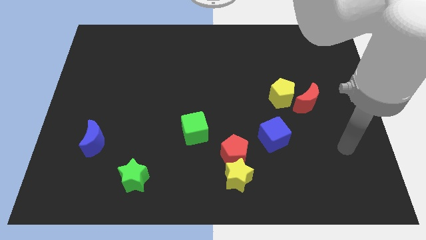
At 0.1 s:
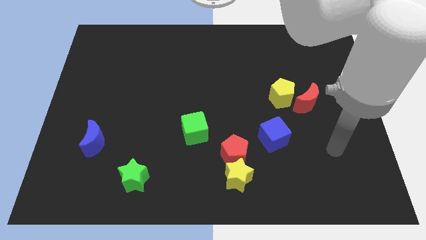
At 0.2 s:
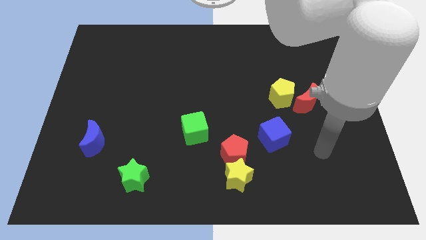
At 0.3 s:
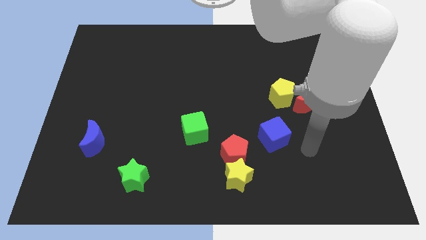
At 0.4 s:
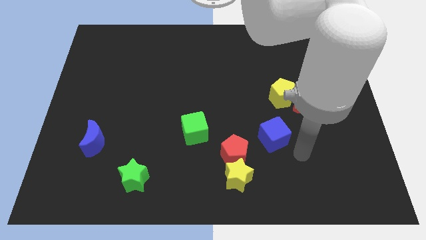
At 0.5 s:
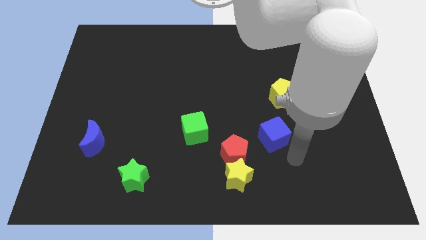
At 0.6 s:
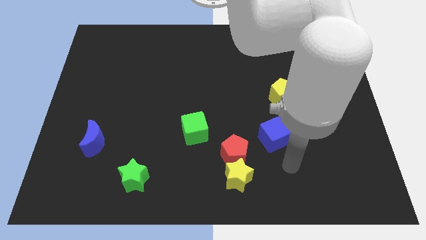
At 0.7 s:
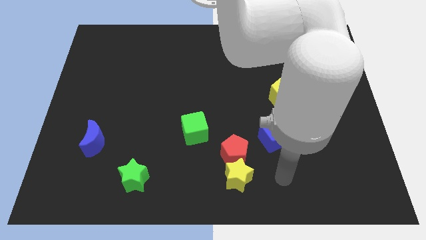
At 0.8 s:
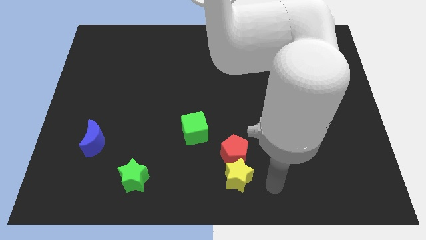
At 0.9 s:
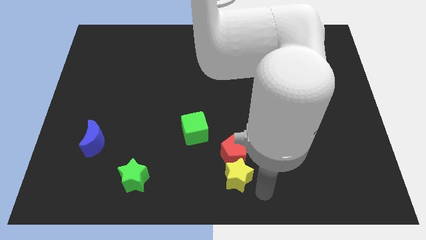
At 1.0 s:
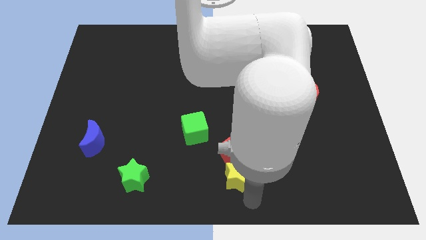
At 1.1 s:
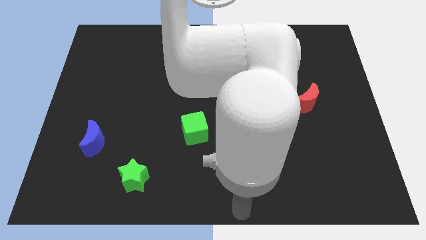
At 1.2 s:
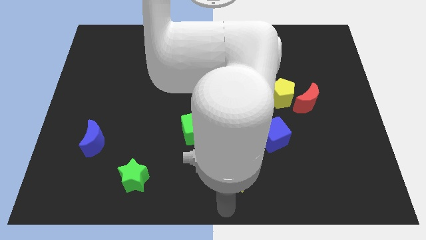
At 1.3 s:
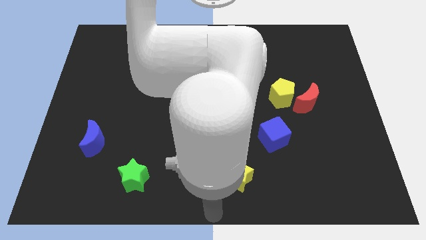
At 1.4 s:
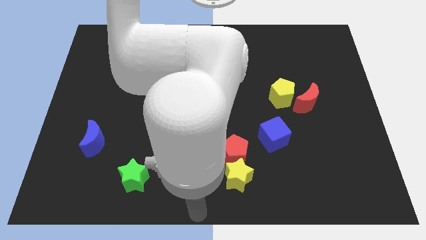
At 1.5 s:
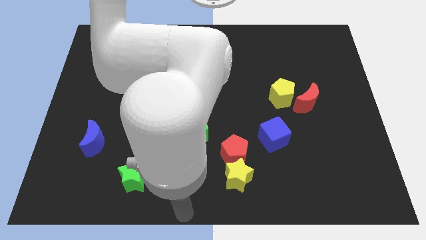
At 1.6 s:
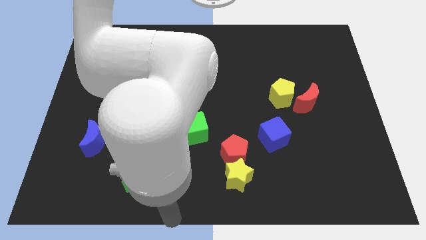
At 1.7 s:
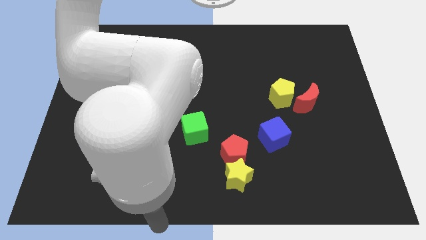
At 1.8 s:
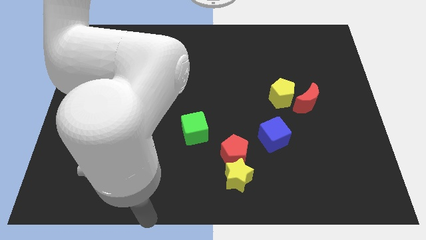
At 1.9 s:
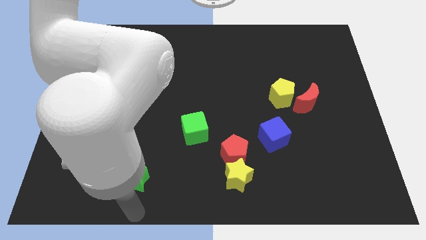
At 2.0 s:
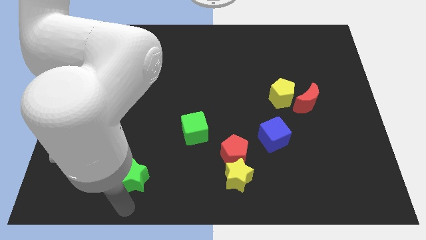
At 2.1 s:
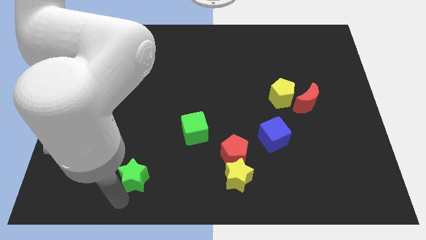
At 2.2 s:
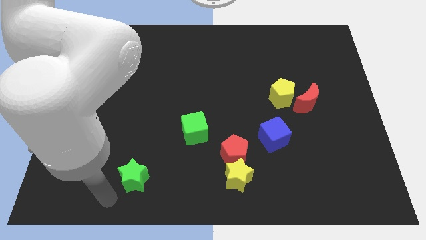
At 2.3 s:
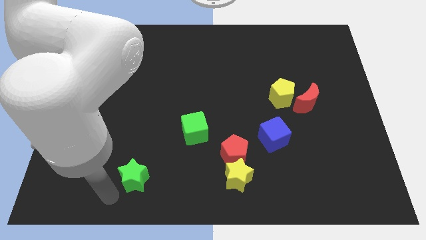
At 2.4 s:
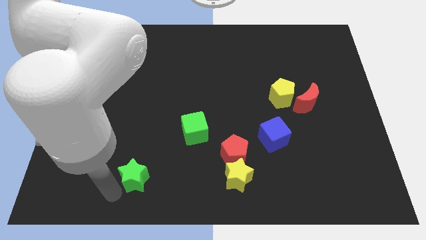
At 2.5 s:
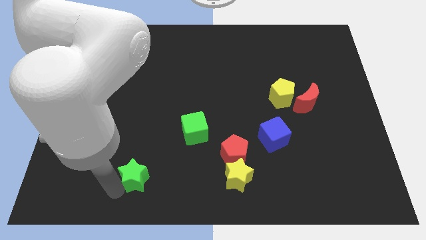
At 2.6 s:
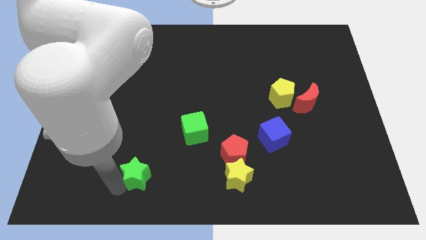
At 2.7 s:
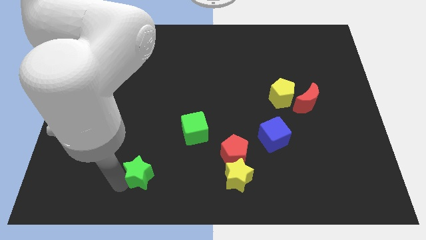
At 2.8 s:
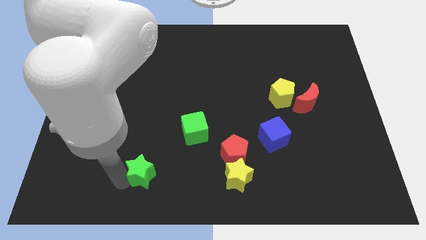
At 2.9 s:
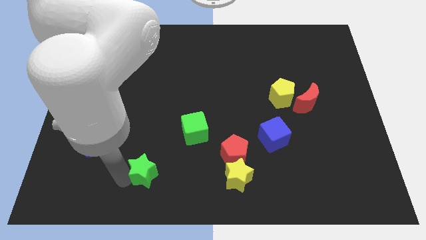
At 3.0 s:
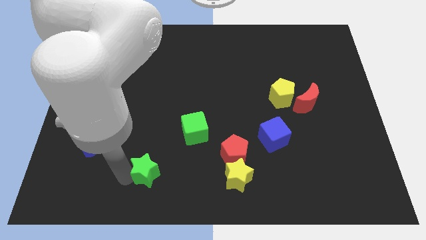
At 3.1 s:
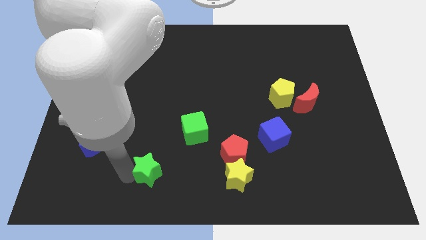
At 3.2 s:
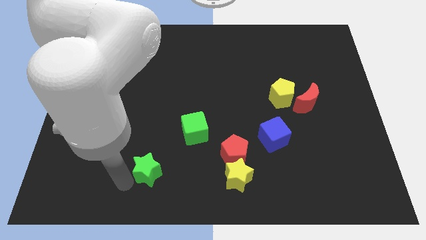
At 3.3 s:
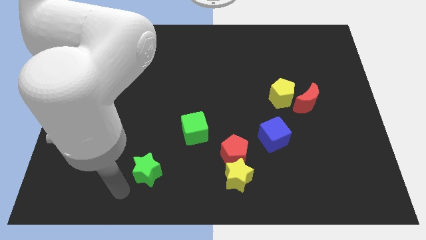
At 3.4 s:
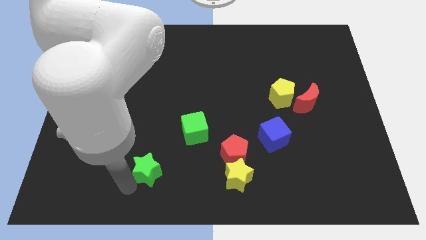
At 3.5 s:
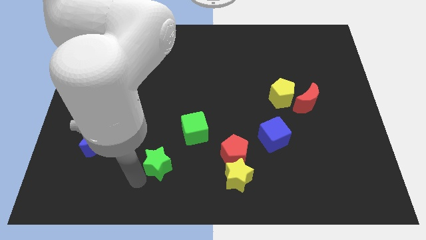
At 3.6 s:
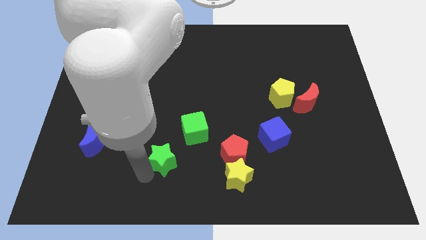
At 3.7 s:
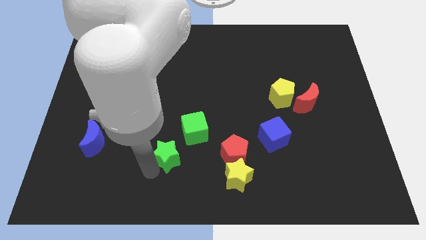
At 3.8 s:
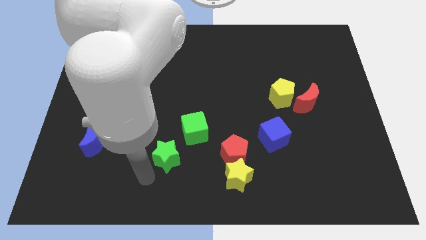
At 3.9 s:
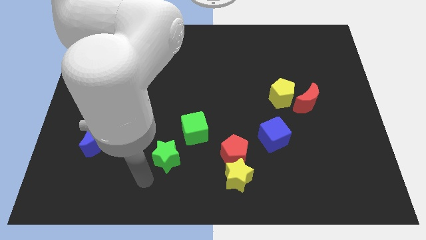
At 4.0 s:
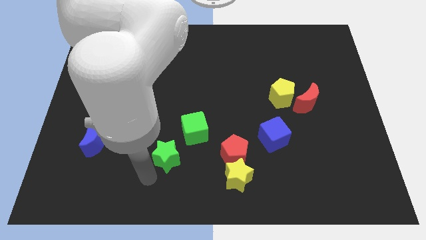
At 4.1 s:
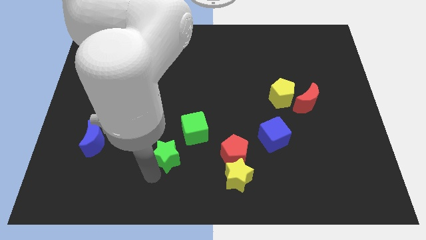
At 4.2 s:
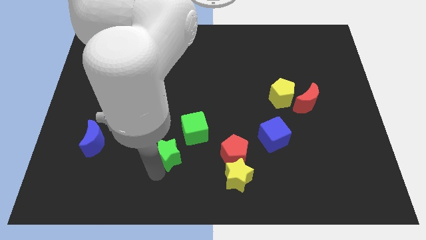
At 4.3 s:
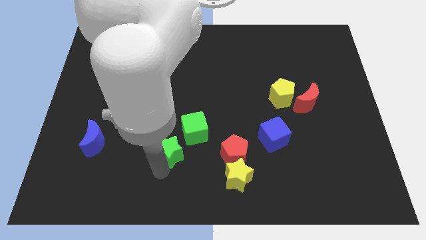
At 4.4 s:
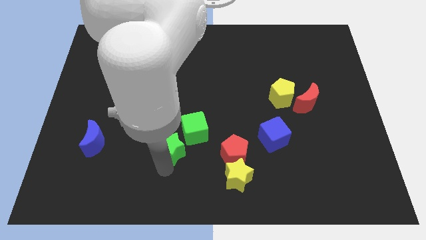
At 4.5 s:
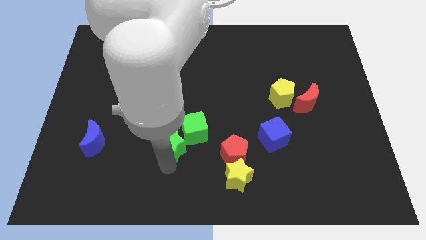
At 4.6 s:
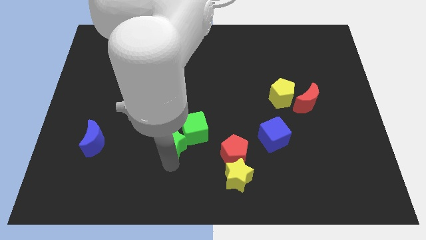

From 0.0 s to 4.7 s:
put the green star towards the green cube

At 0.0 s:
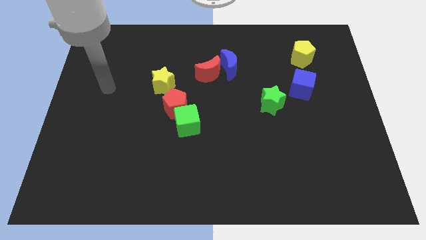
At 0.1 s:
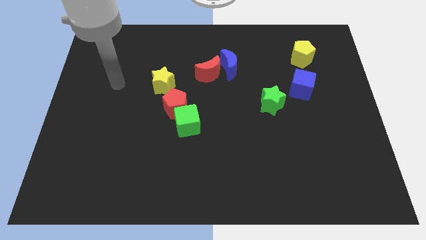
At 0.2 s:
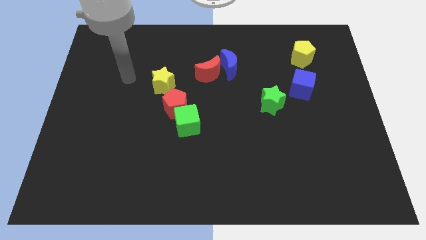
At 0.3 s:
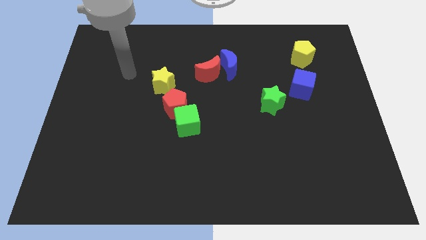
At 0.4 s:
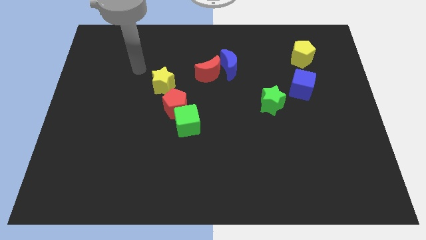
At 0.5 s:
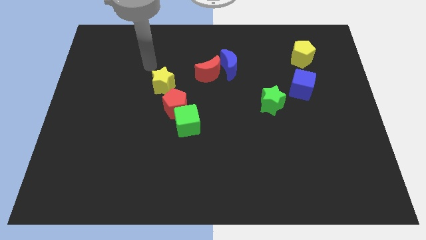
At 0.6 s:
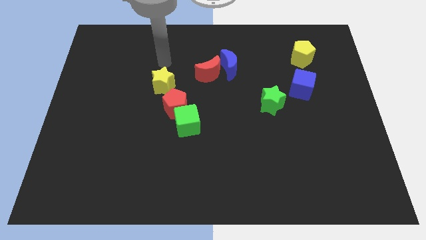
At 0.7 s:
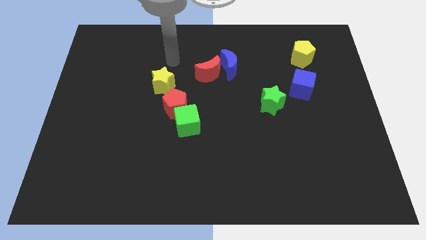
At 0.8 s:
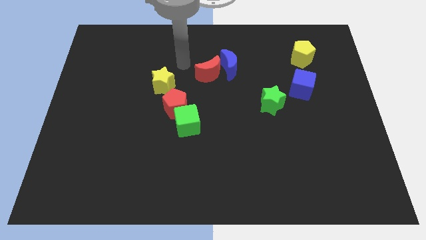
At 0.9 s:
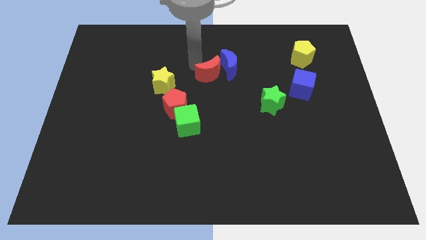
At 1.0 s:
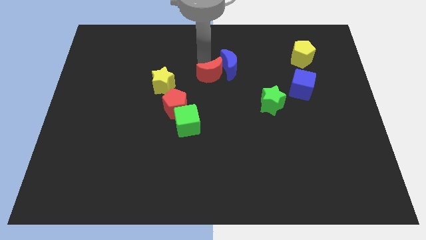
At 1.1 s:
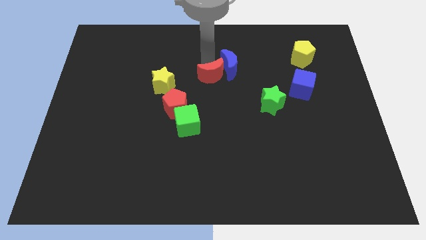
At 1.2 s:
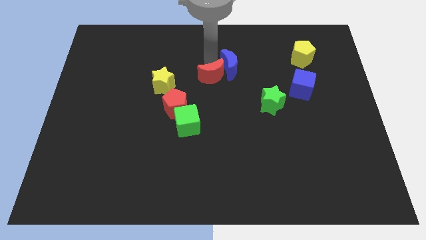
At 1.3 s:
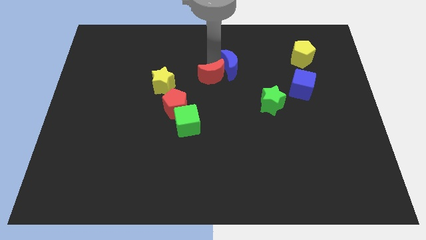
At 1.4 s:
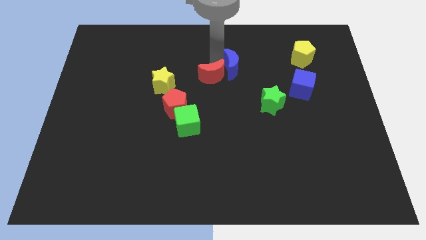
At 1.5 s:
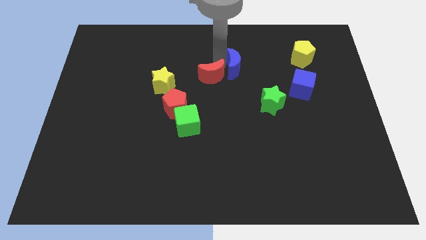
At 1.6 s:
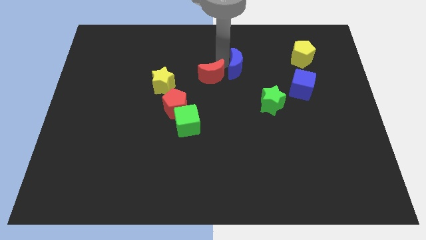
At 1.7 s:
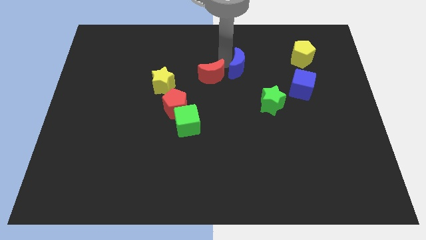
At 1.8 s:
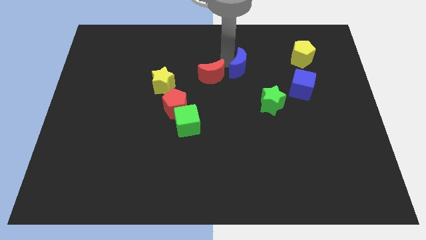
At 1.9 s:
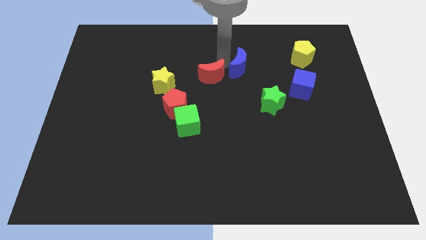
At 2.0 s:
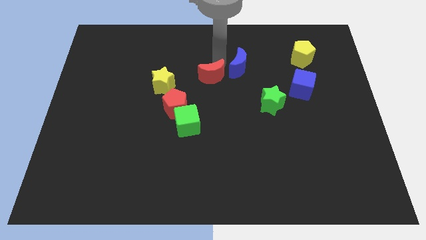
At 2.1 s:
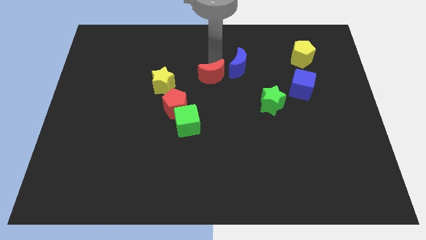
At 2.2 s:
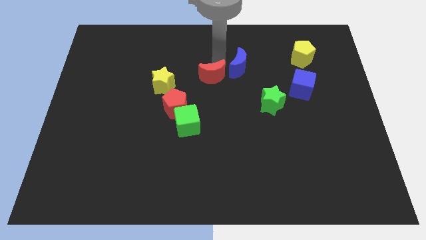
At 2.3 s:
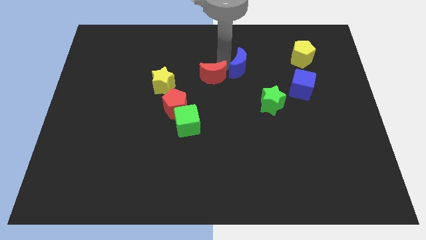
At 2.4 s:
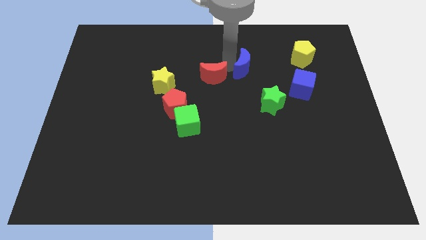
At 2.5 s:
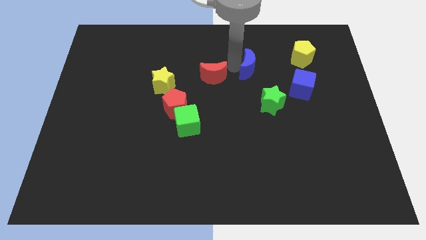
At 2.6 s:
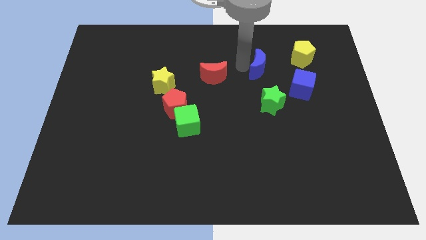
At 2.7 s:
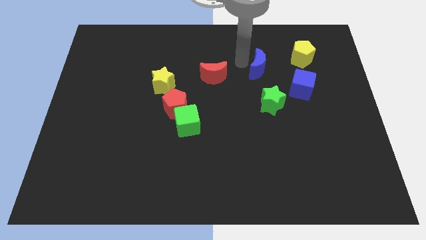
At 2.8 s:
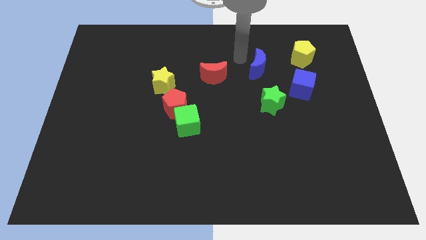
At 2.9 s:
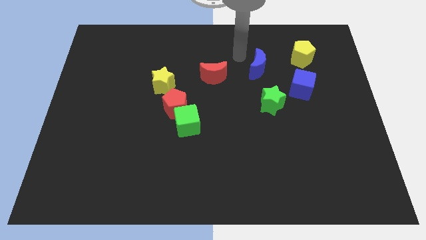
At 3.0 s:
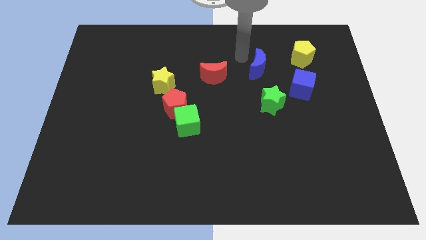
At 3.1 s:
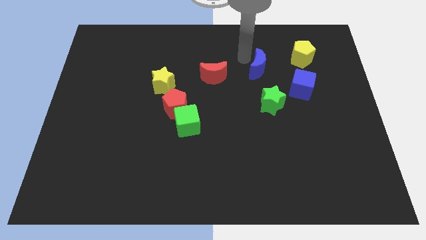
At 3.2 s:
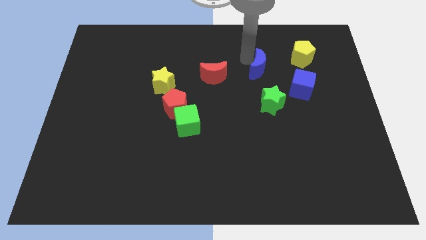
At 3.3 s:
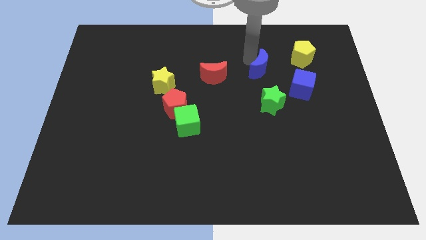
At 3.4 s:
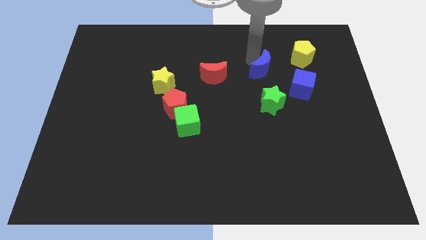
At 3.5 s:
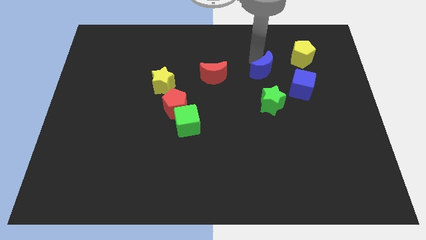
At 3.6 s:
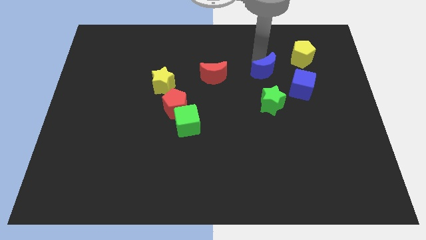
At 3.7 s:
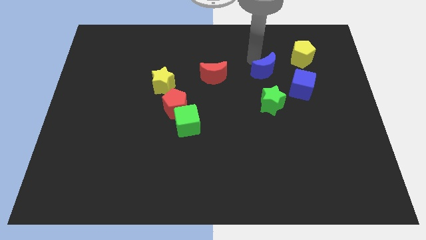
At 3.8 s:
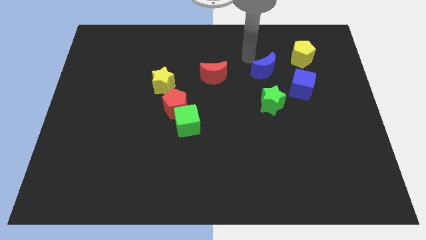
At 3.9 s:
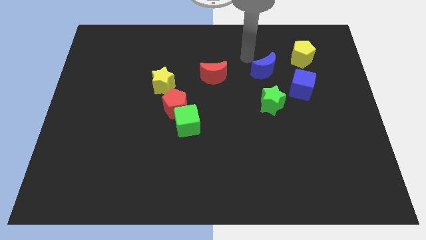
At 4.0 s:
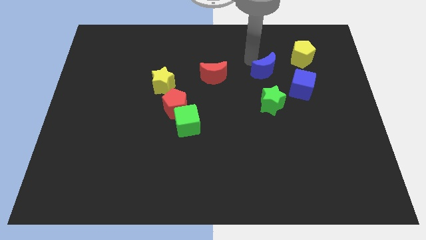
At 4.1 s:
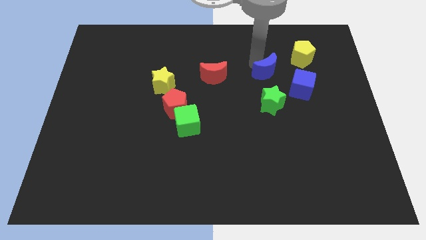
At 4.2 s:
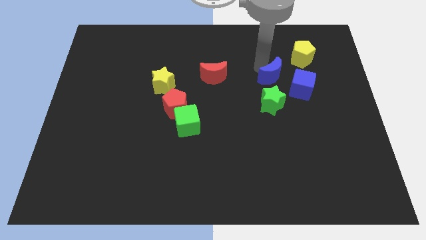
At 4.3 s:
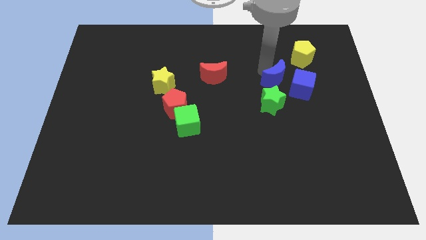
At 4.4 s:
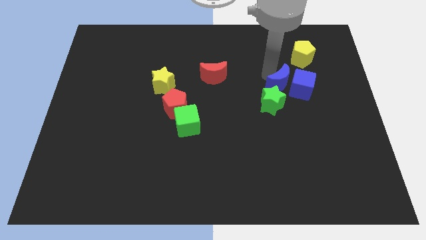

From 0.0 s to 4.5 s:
slide the blue moon next to the blue cube
